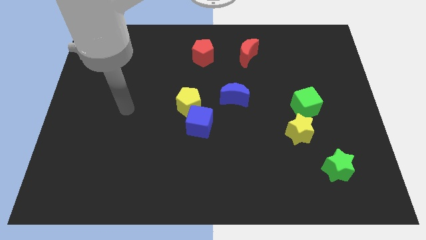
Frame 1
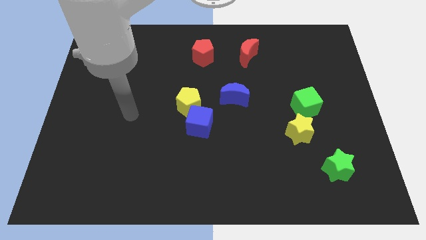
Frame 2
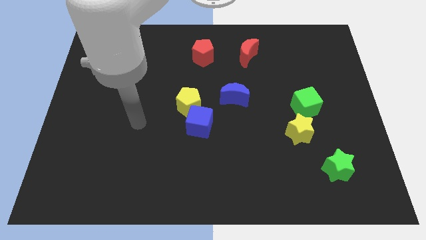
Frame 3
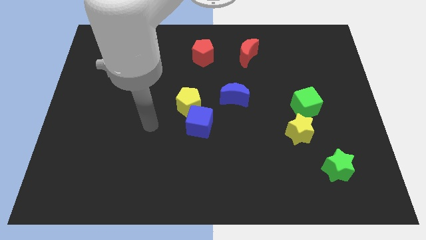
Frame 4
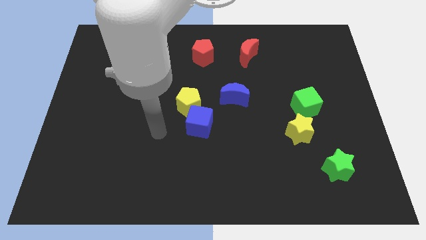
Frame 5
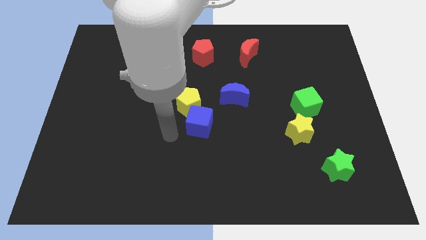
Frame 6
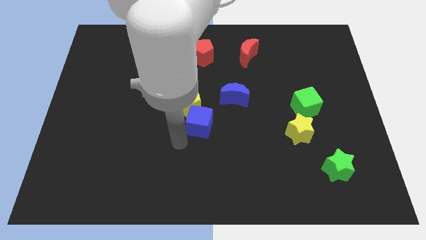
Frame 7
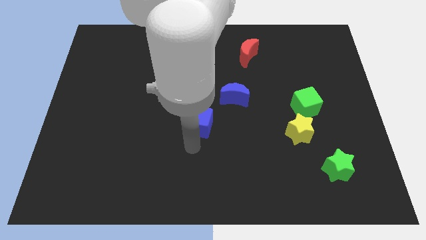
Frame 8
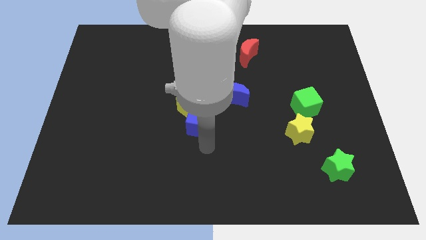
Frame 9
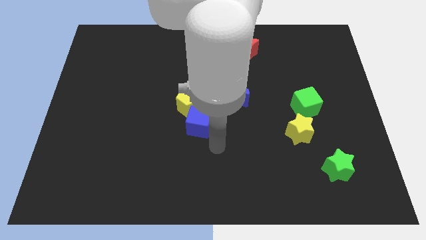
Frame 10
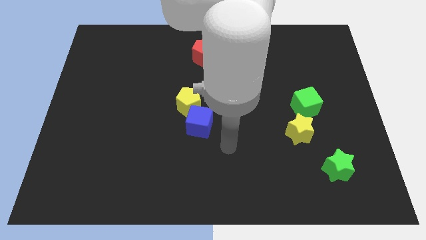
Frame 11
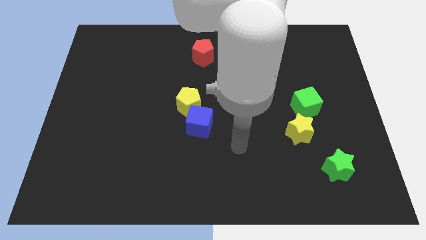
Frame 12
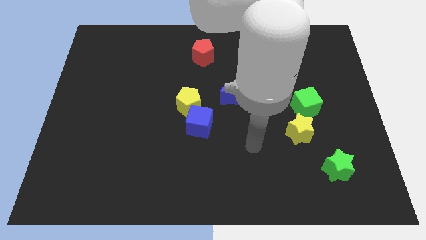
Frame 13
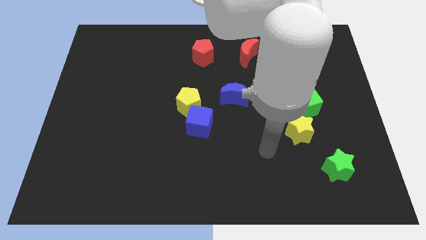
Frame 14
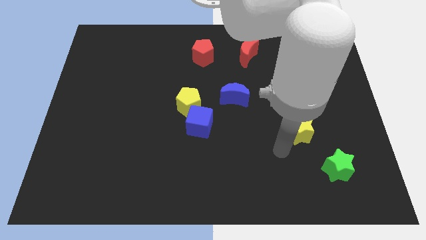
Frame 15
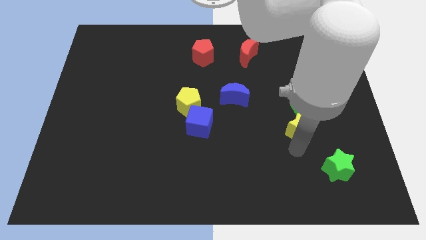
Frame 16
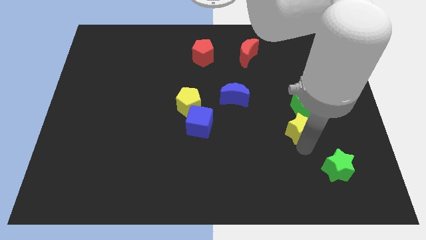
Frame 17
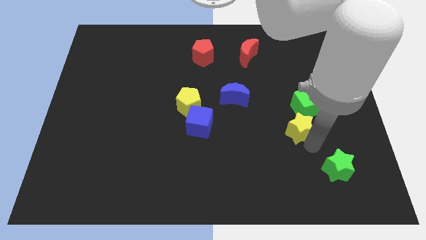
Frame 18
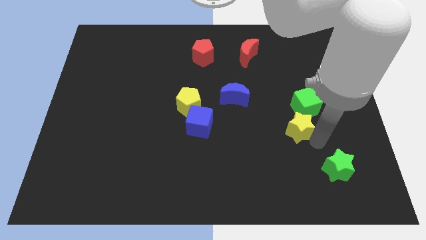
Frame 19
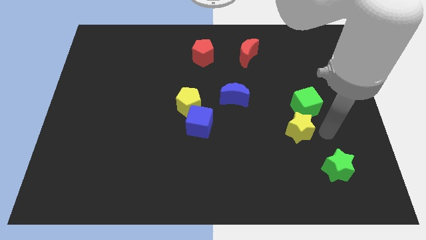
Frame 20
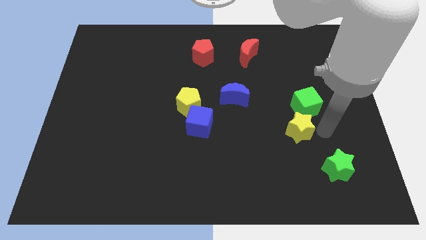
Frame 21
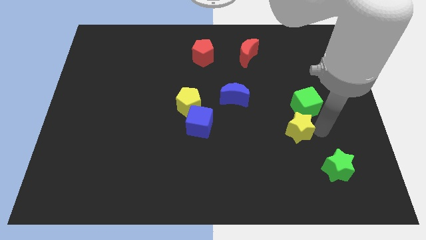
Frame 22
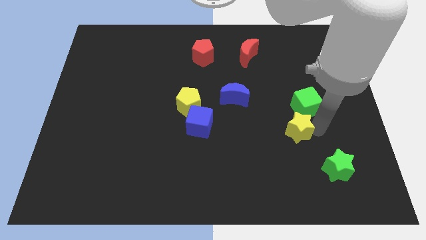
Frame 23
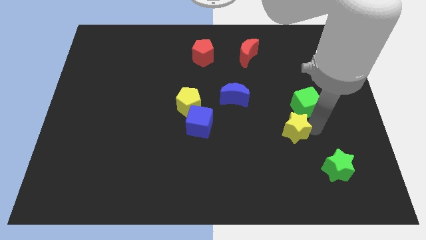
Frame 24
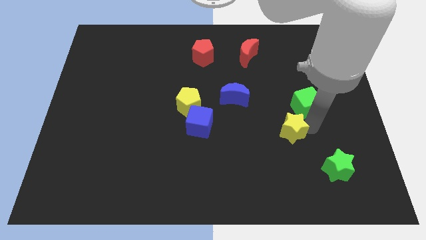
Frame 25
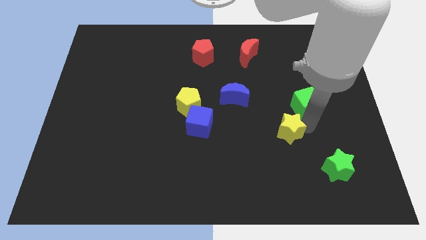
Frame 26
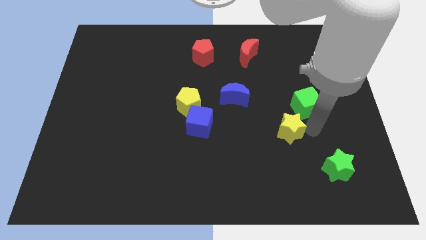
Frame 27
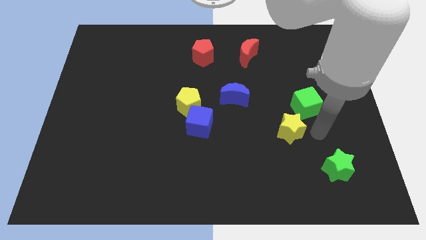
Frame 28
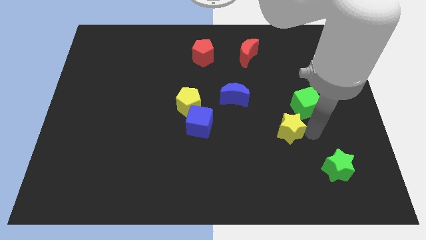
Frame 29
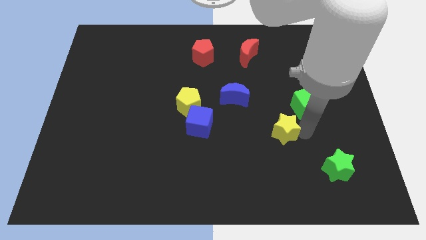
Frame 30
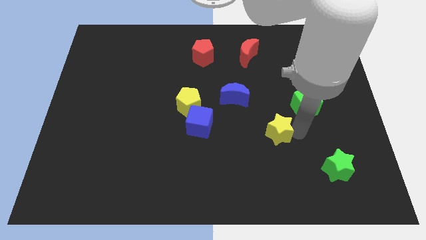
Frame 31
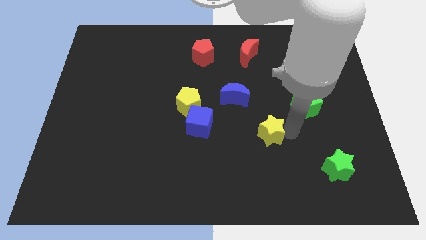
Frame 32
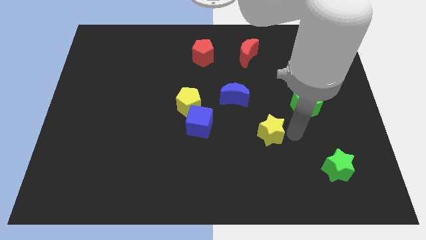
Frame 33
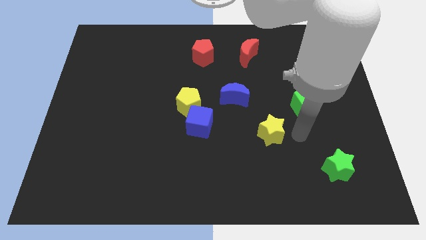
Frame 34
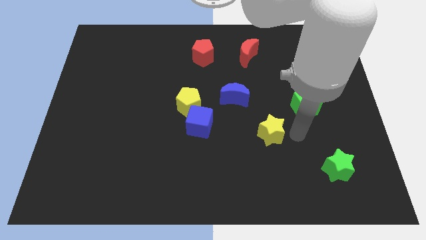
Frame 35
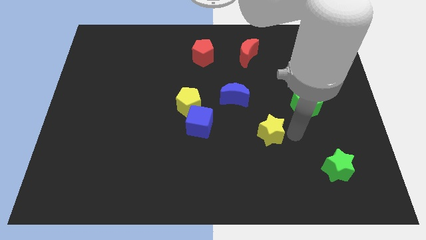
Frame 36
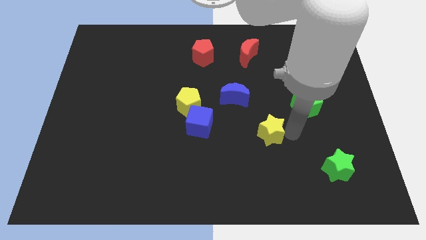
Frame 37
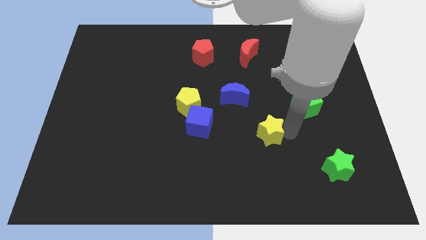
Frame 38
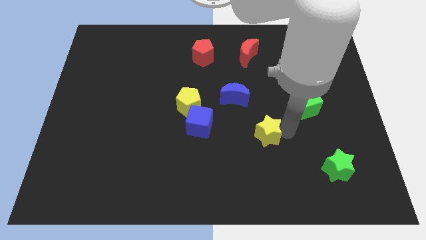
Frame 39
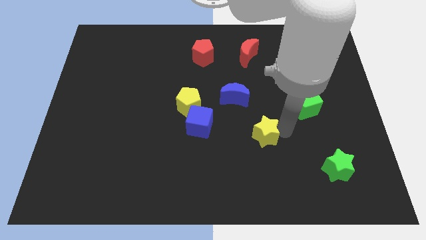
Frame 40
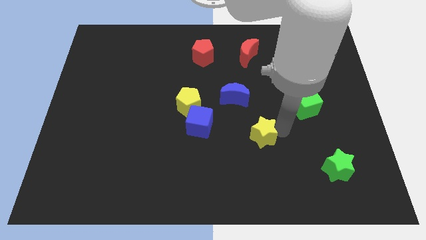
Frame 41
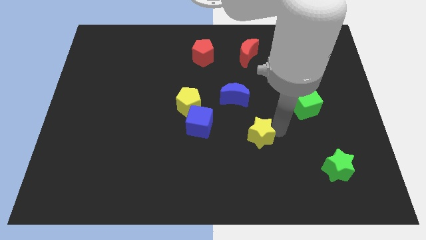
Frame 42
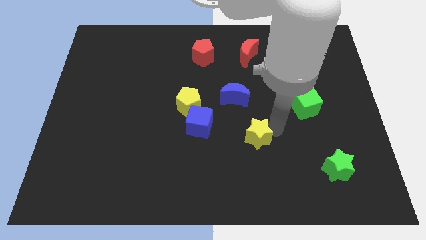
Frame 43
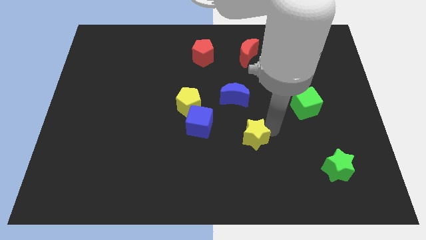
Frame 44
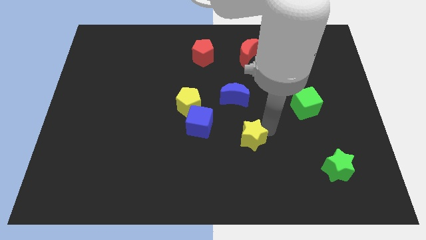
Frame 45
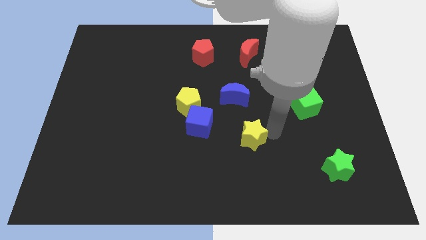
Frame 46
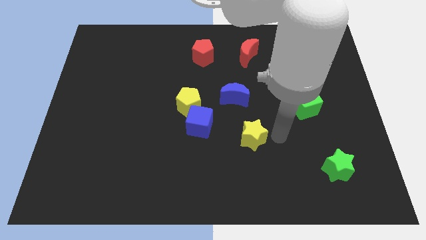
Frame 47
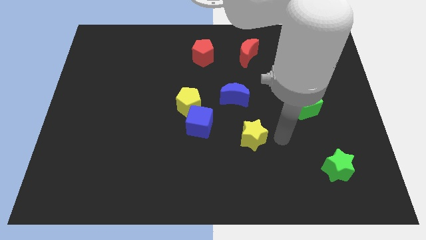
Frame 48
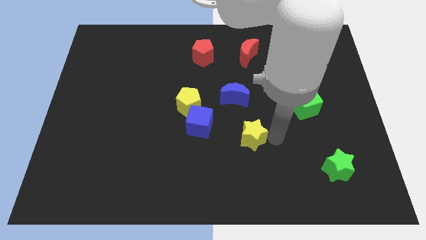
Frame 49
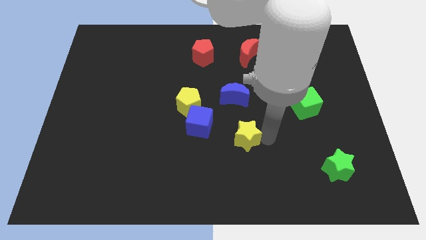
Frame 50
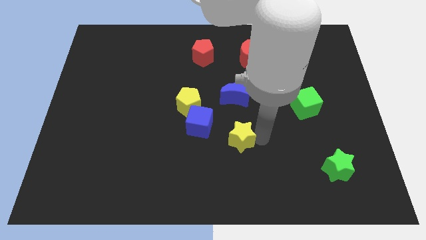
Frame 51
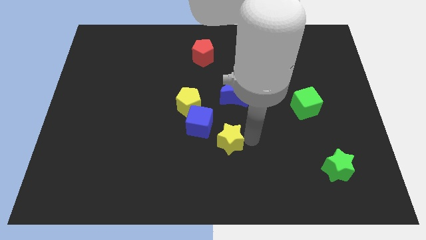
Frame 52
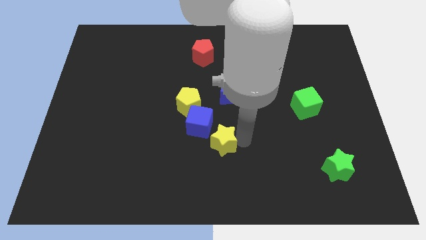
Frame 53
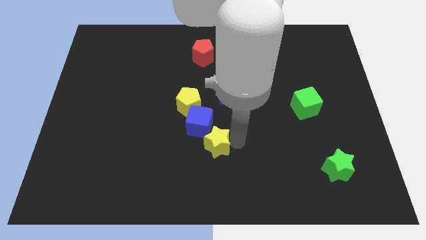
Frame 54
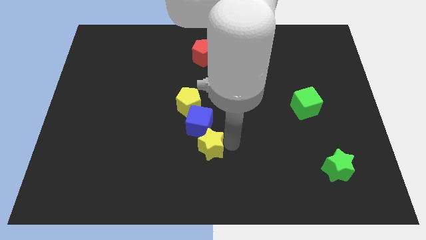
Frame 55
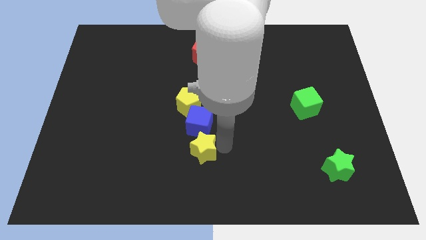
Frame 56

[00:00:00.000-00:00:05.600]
slide the yellow star to the bottom of the yellow pentagon

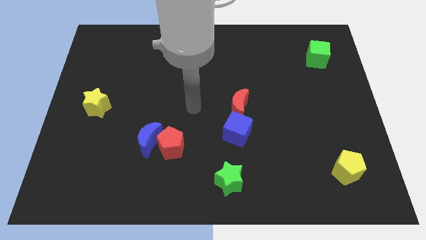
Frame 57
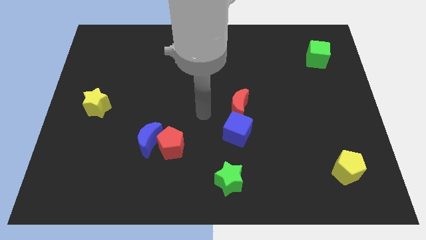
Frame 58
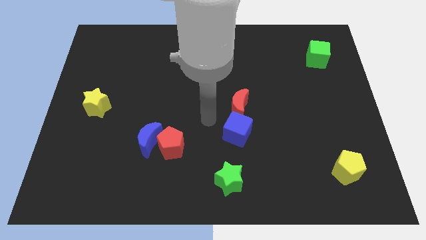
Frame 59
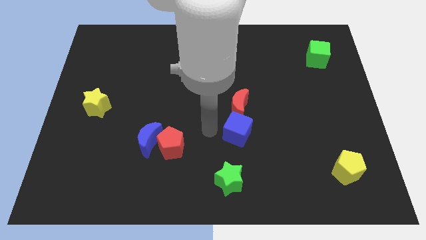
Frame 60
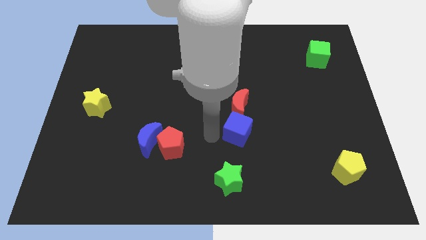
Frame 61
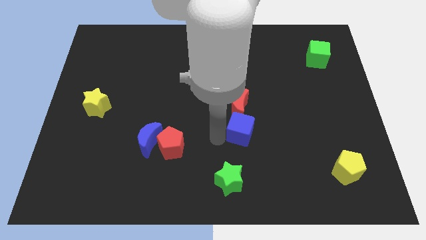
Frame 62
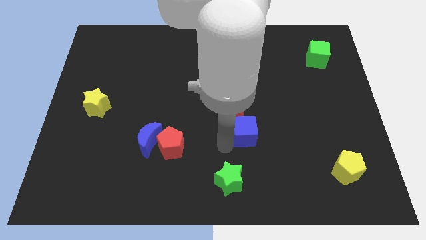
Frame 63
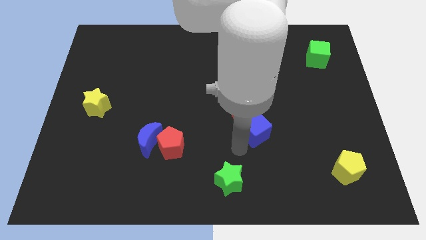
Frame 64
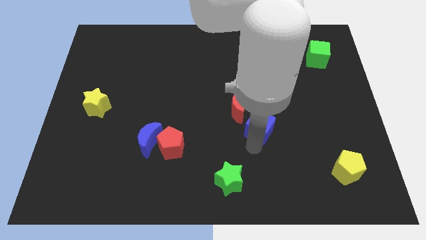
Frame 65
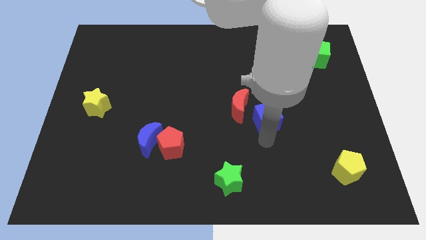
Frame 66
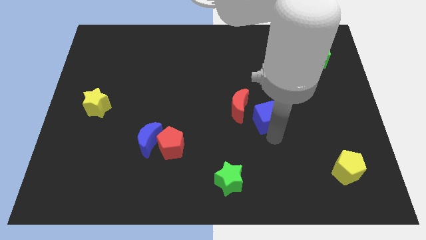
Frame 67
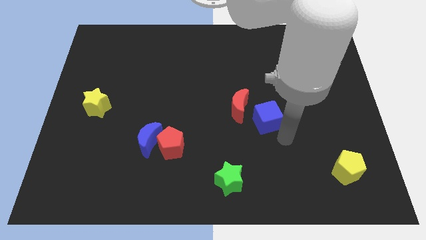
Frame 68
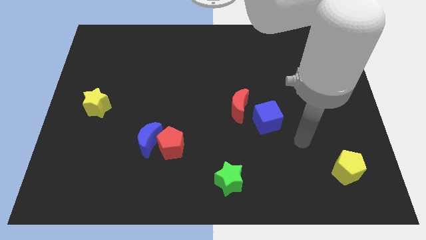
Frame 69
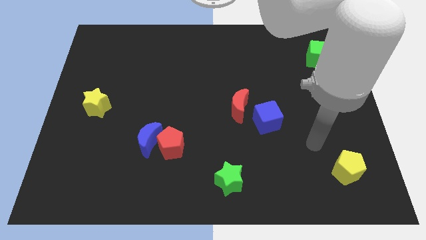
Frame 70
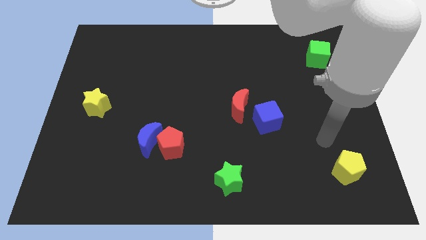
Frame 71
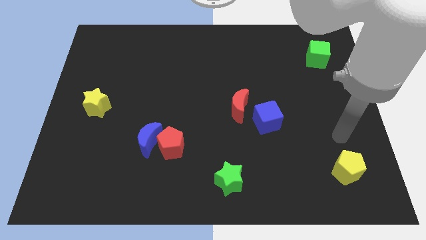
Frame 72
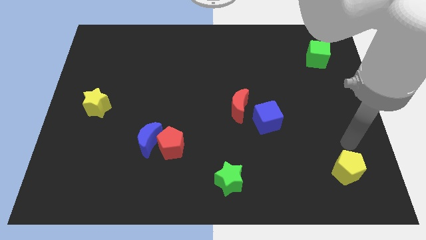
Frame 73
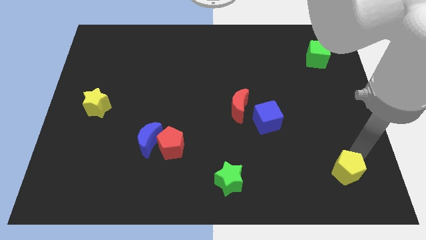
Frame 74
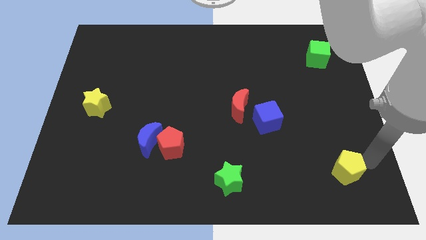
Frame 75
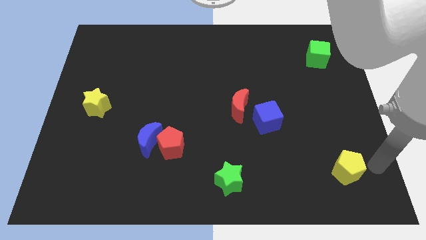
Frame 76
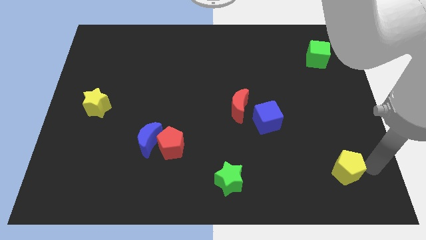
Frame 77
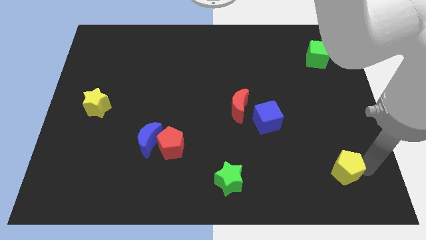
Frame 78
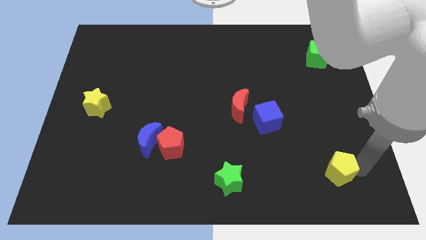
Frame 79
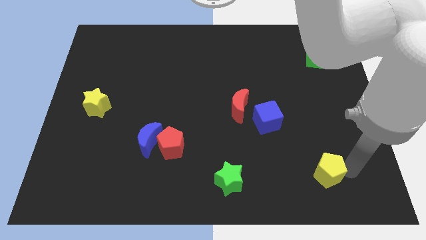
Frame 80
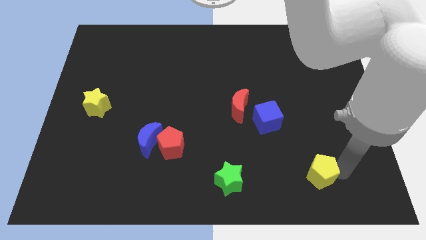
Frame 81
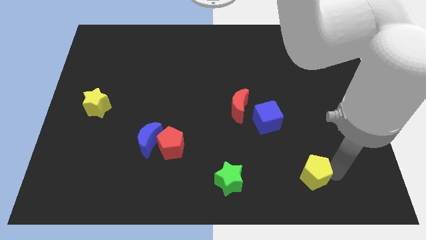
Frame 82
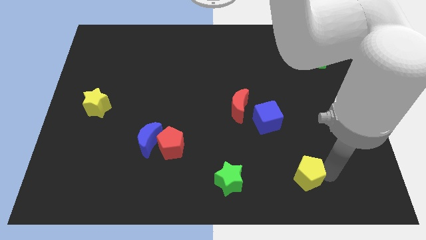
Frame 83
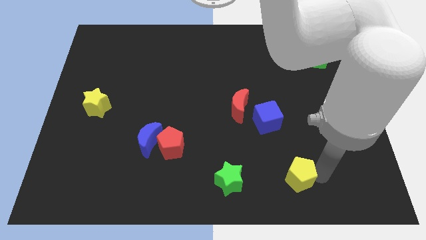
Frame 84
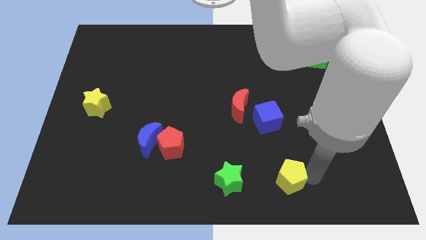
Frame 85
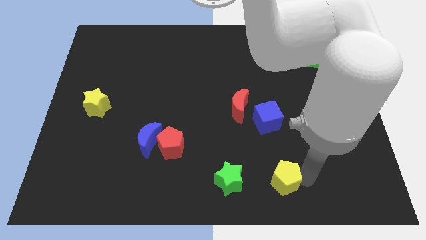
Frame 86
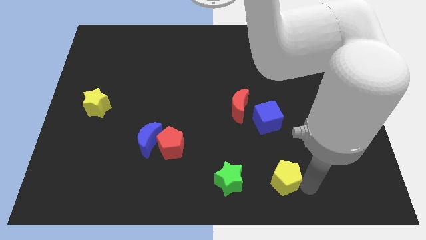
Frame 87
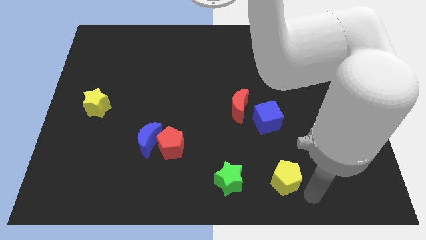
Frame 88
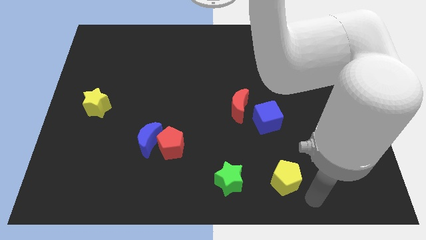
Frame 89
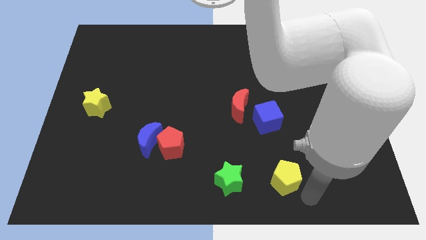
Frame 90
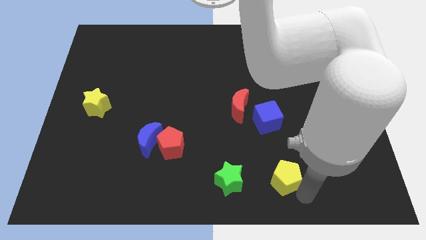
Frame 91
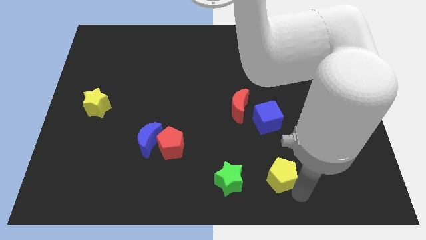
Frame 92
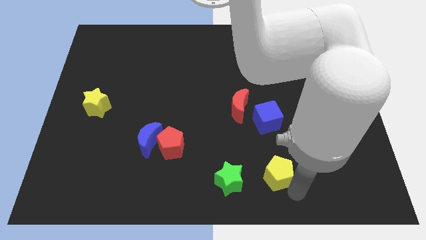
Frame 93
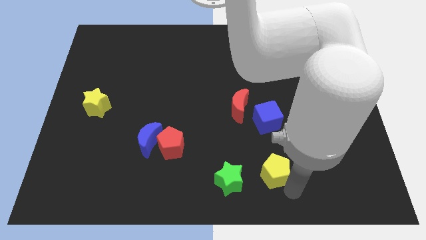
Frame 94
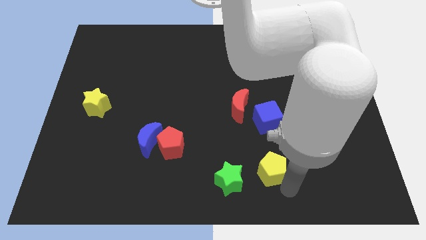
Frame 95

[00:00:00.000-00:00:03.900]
push the yellow pentagon diagonally up and to the right of the green star
